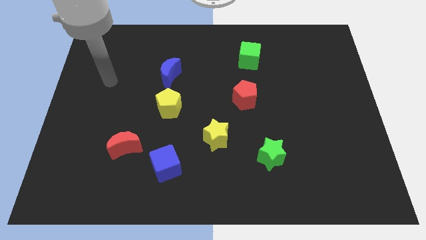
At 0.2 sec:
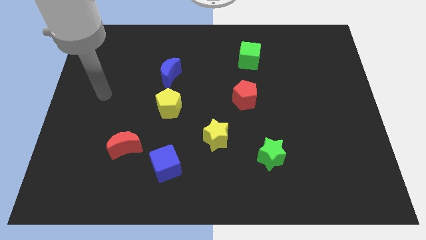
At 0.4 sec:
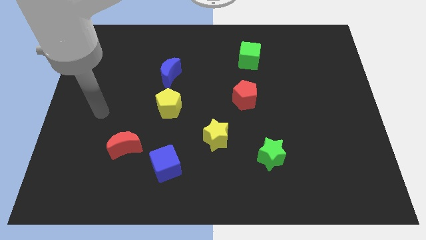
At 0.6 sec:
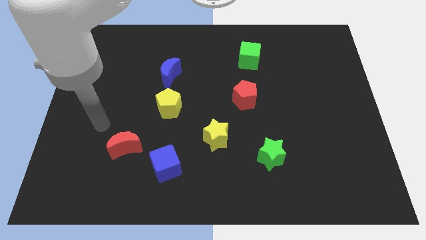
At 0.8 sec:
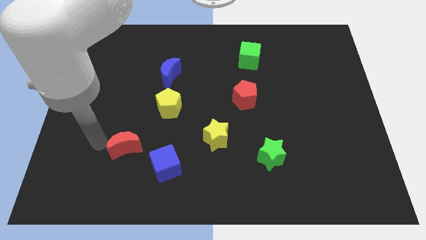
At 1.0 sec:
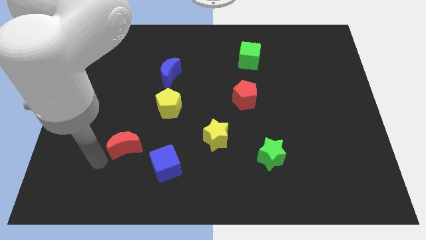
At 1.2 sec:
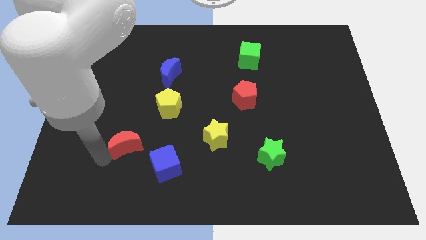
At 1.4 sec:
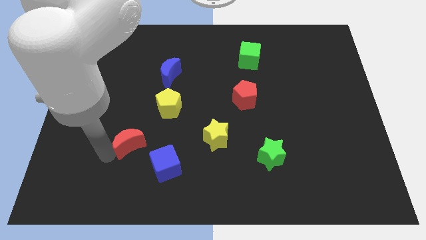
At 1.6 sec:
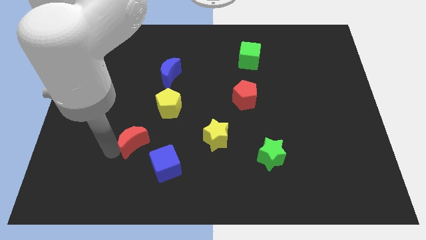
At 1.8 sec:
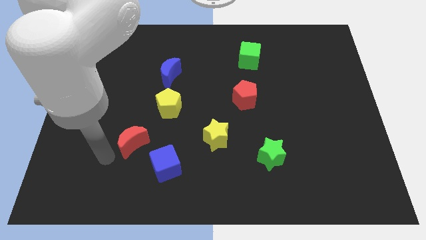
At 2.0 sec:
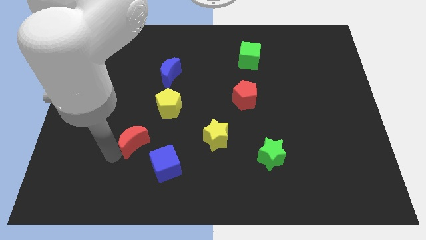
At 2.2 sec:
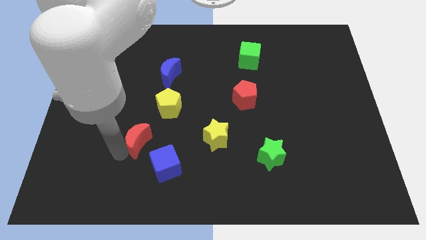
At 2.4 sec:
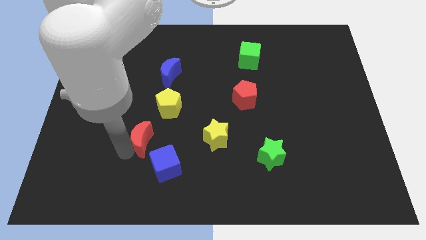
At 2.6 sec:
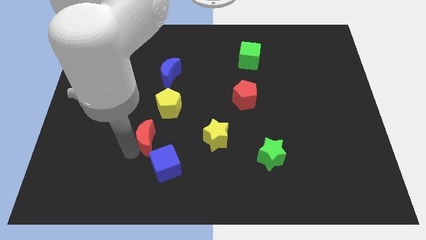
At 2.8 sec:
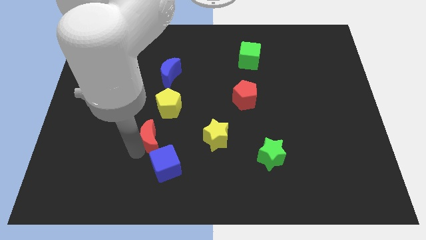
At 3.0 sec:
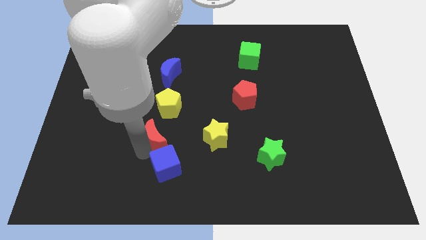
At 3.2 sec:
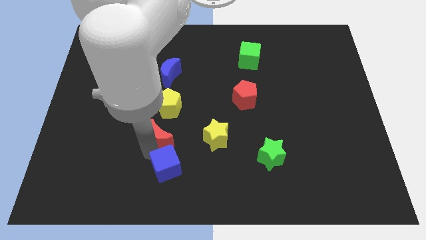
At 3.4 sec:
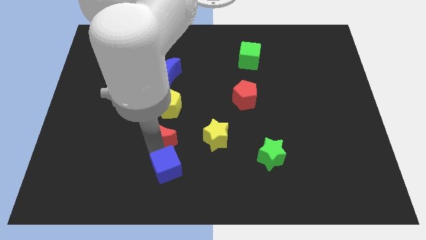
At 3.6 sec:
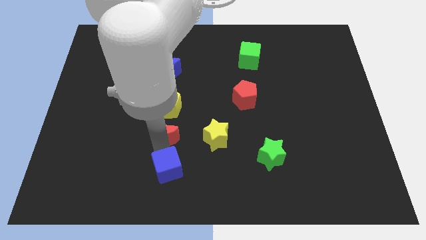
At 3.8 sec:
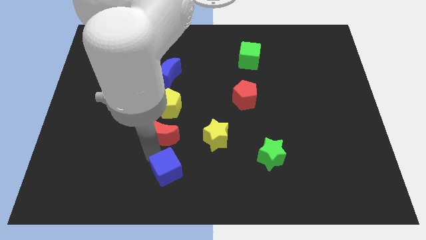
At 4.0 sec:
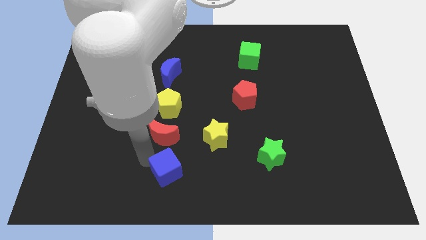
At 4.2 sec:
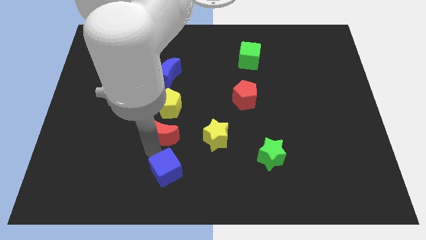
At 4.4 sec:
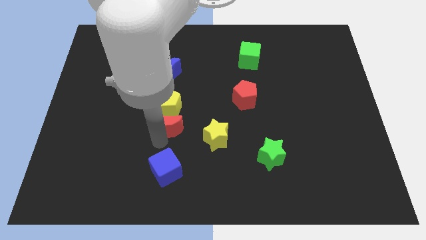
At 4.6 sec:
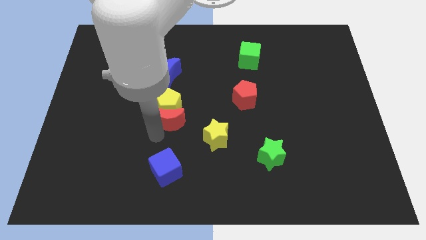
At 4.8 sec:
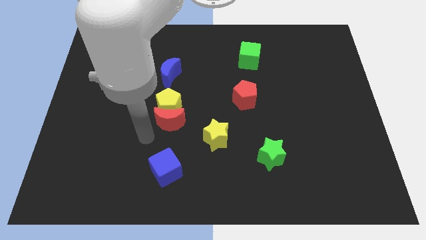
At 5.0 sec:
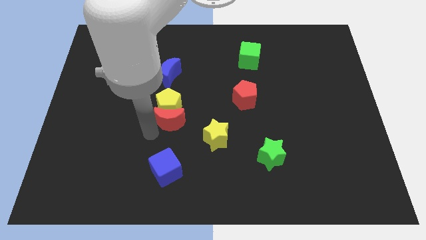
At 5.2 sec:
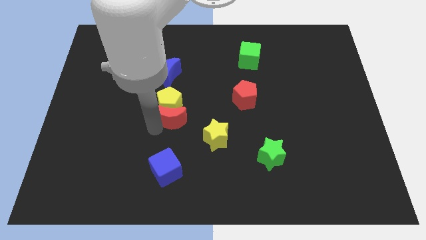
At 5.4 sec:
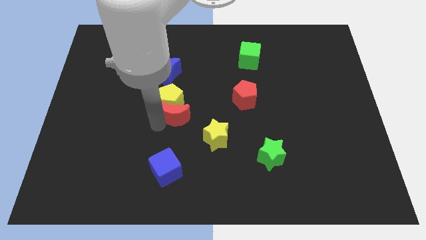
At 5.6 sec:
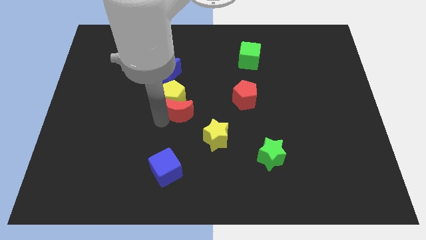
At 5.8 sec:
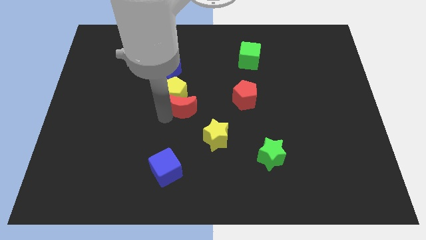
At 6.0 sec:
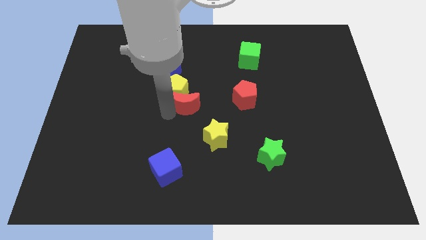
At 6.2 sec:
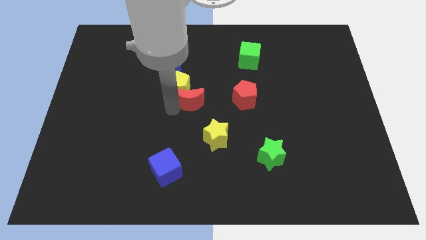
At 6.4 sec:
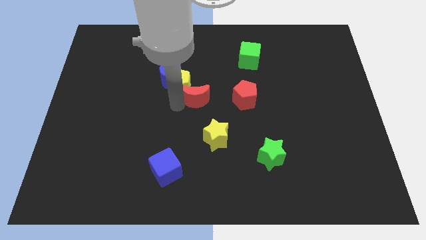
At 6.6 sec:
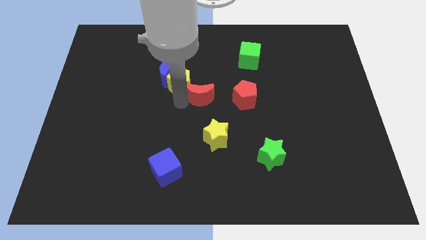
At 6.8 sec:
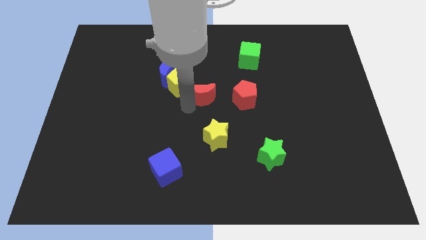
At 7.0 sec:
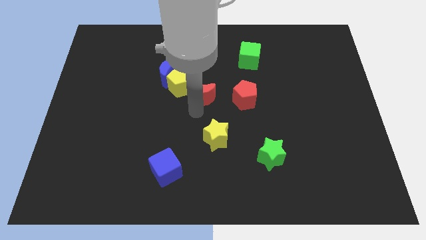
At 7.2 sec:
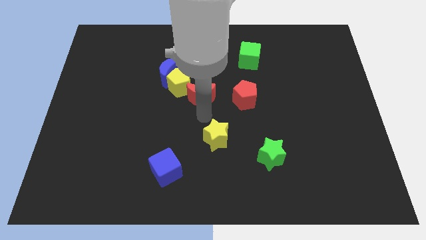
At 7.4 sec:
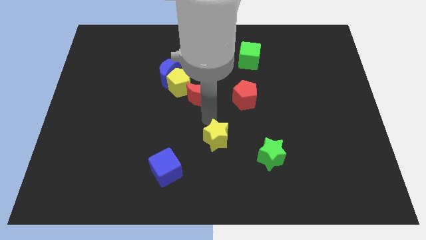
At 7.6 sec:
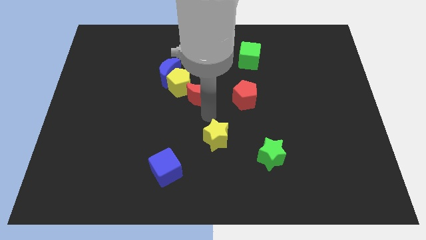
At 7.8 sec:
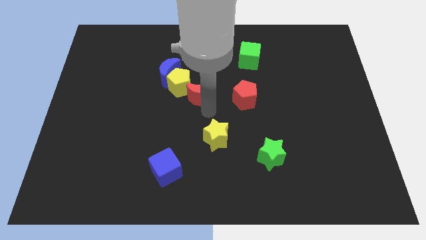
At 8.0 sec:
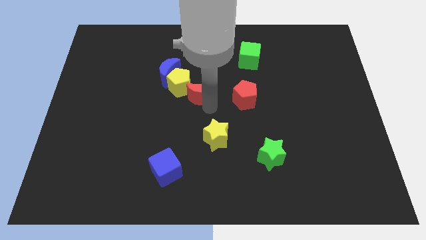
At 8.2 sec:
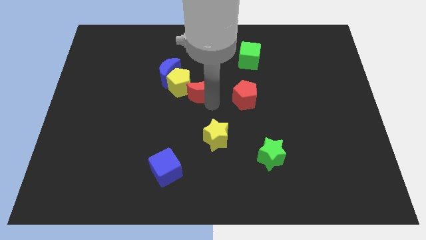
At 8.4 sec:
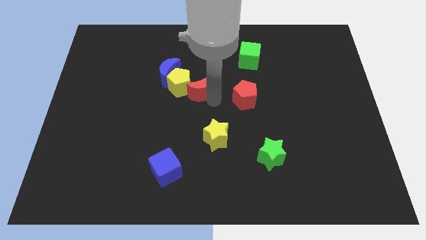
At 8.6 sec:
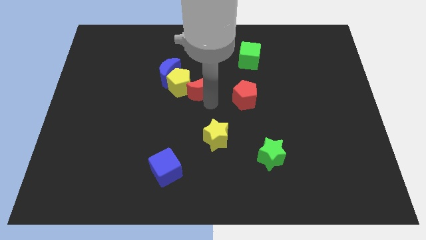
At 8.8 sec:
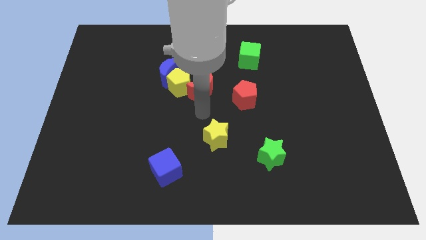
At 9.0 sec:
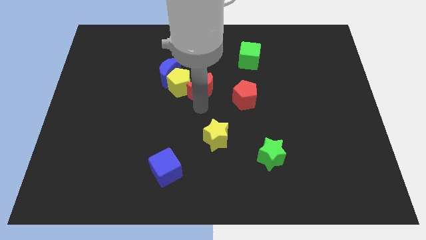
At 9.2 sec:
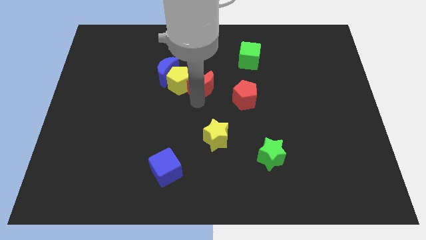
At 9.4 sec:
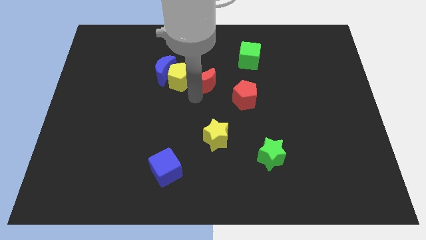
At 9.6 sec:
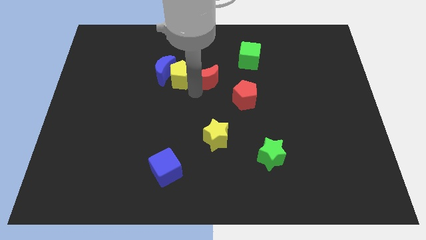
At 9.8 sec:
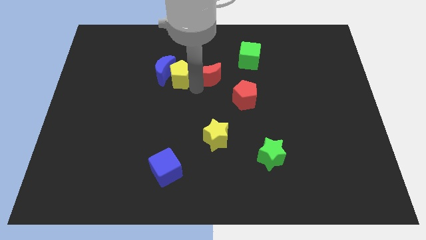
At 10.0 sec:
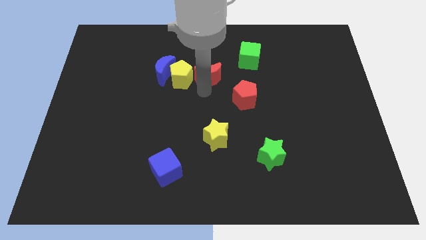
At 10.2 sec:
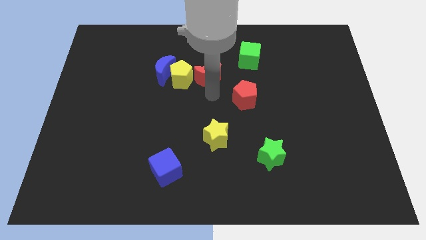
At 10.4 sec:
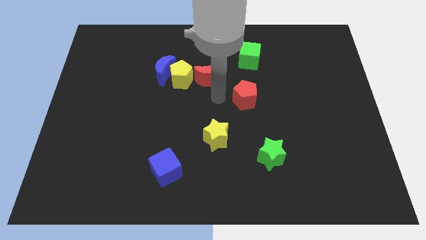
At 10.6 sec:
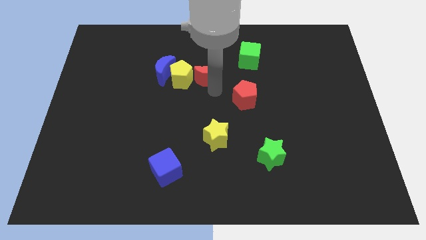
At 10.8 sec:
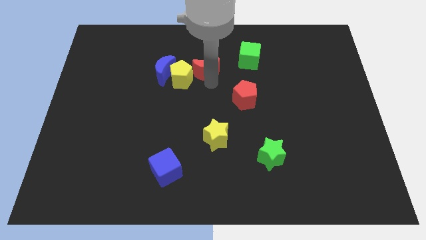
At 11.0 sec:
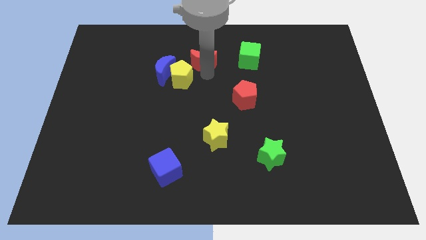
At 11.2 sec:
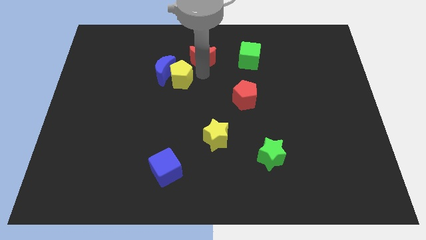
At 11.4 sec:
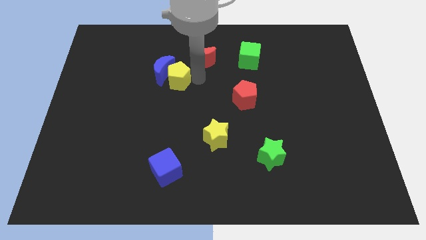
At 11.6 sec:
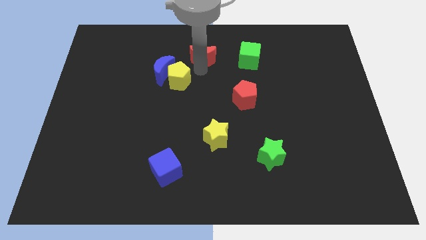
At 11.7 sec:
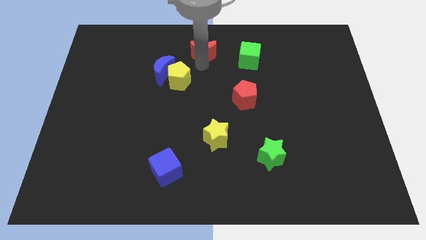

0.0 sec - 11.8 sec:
slide the red moon to the towards your base

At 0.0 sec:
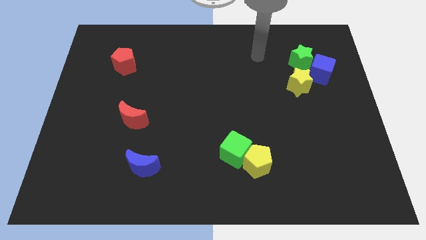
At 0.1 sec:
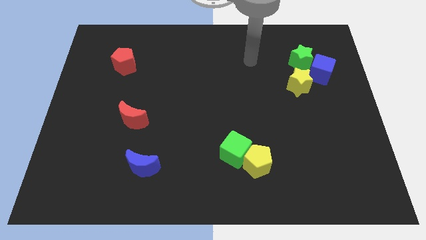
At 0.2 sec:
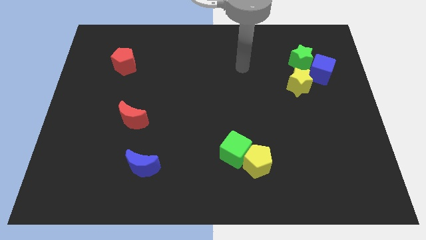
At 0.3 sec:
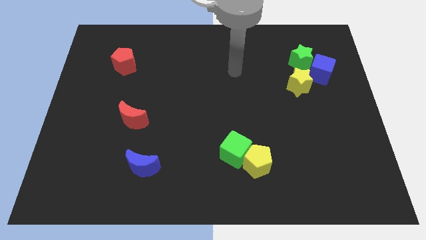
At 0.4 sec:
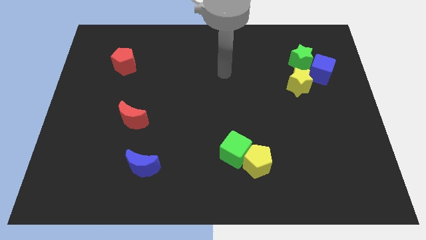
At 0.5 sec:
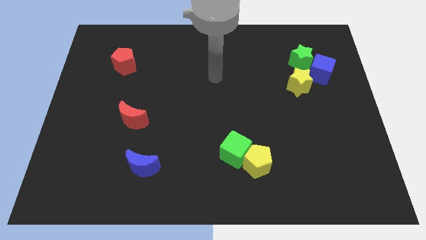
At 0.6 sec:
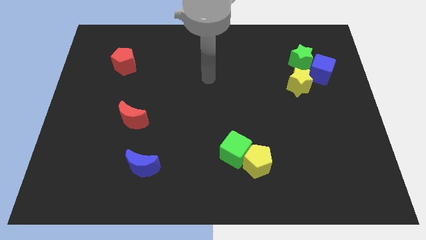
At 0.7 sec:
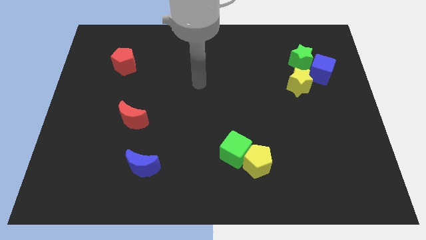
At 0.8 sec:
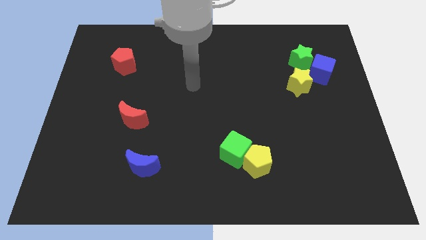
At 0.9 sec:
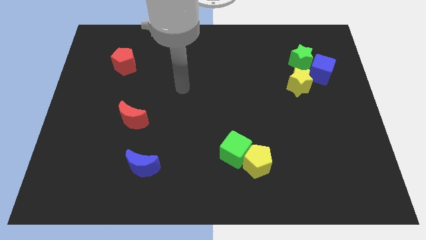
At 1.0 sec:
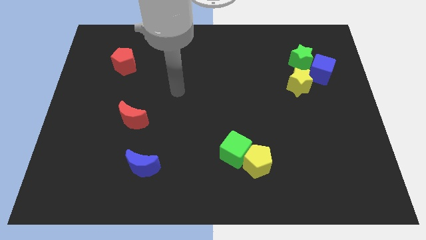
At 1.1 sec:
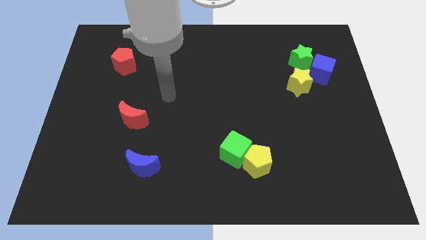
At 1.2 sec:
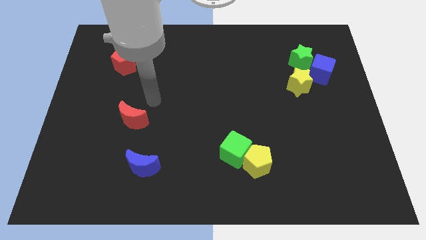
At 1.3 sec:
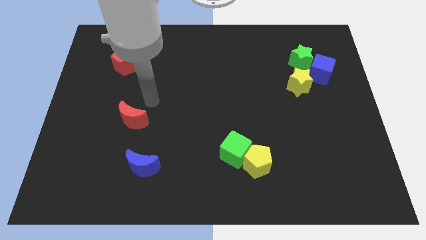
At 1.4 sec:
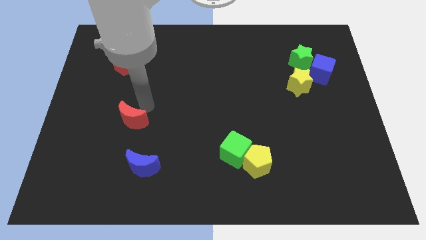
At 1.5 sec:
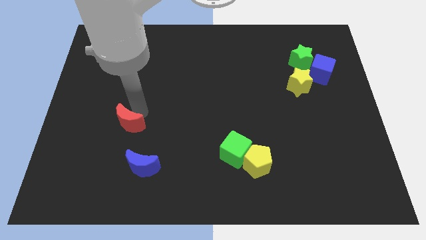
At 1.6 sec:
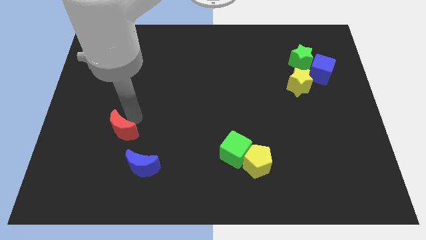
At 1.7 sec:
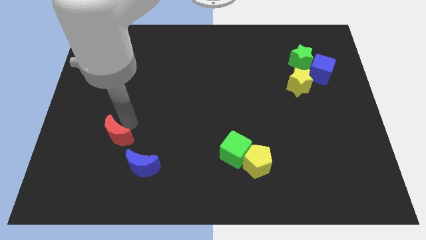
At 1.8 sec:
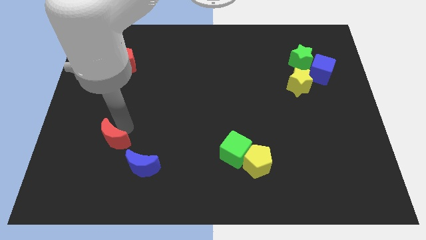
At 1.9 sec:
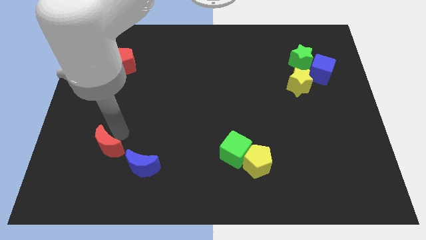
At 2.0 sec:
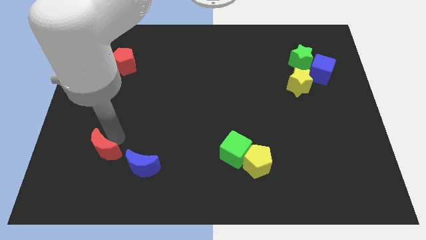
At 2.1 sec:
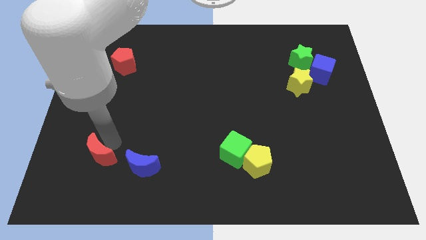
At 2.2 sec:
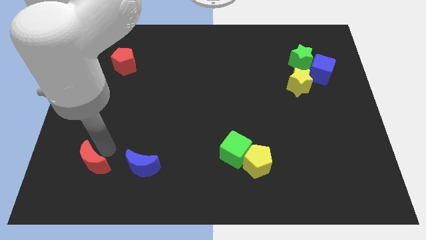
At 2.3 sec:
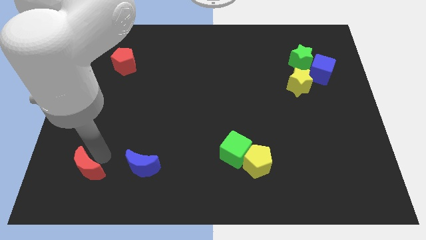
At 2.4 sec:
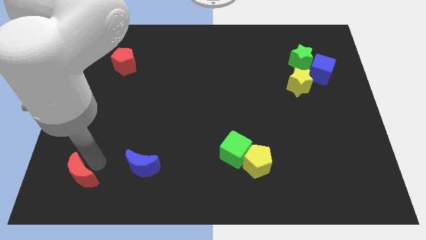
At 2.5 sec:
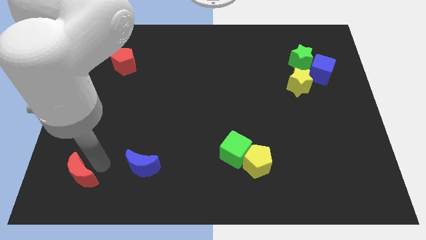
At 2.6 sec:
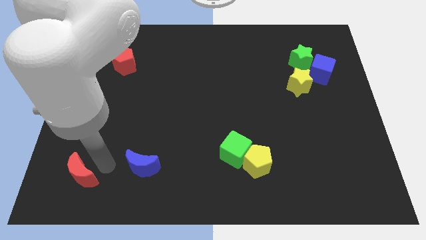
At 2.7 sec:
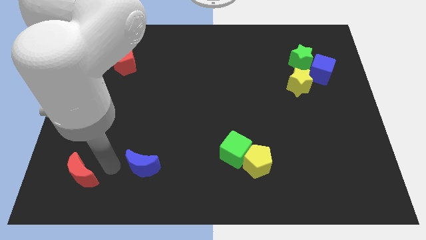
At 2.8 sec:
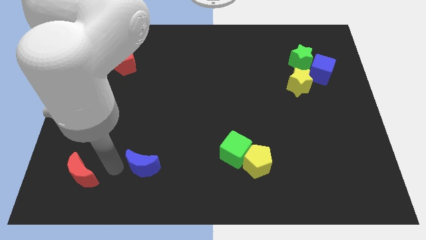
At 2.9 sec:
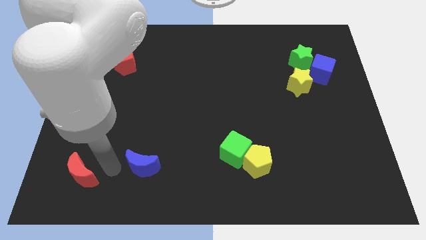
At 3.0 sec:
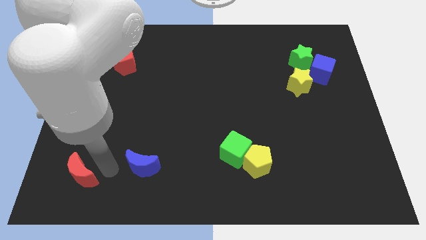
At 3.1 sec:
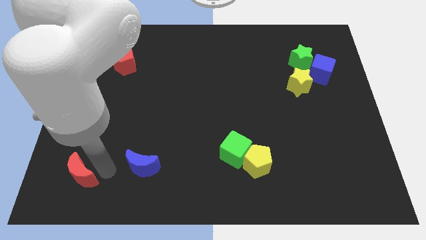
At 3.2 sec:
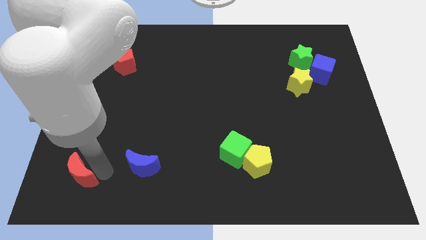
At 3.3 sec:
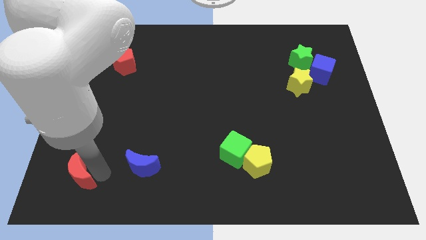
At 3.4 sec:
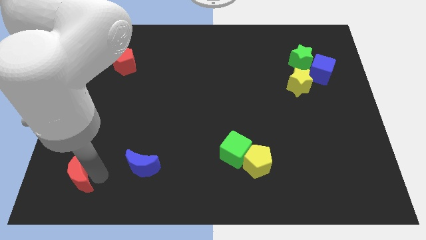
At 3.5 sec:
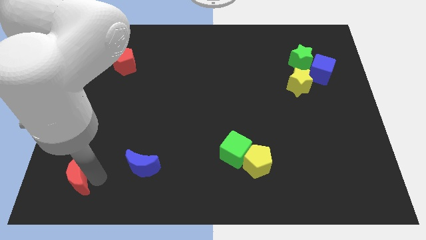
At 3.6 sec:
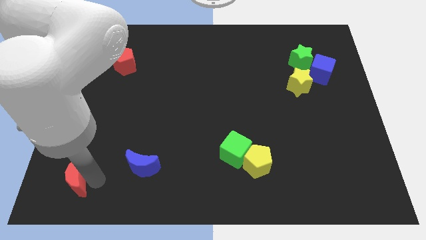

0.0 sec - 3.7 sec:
slide the red moon to the bottom left
